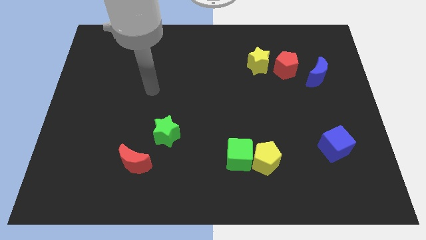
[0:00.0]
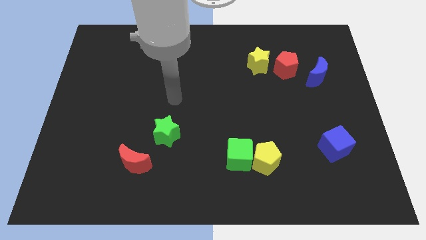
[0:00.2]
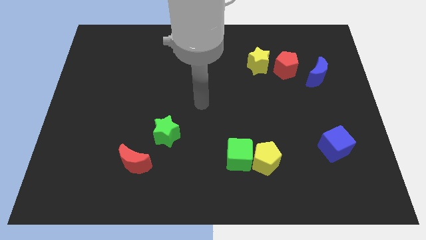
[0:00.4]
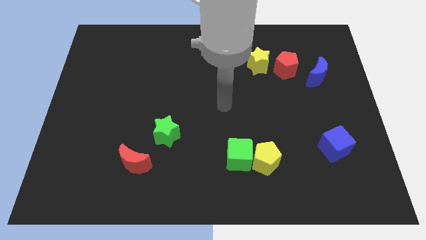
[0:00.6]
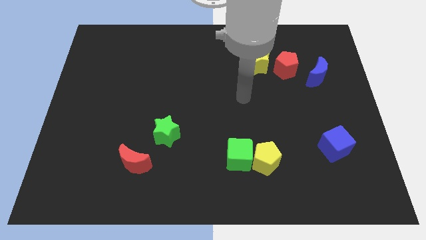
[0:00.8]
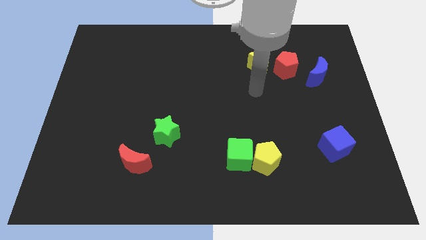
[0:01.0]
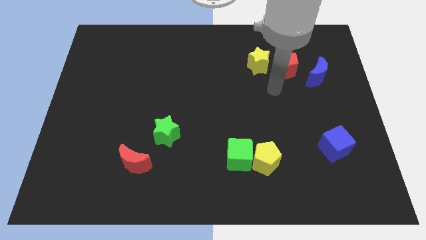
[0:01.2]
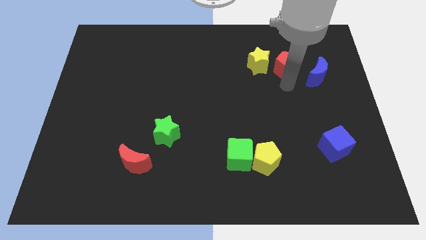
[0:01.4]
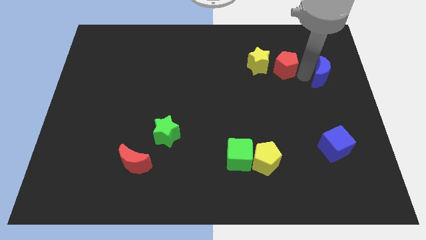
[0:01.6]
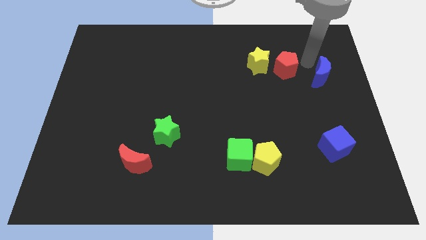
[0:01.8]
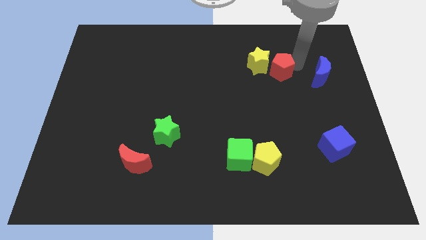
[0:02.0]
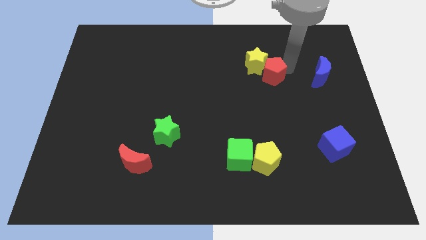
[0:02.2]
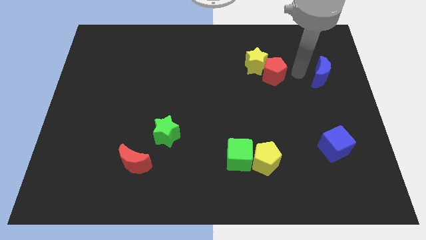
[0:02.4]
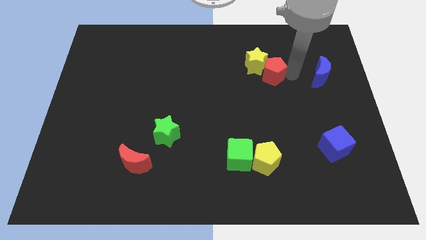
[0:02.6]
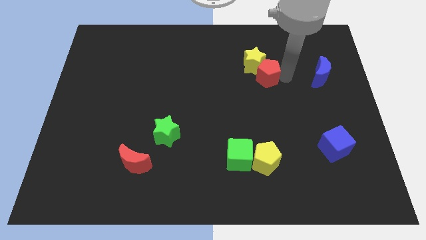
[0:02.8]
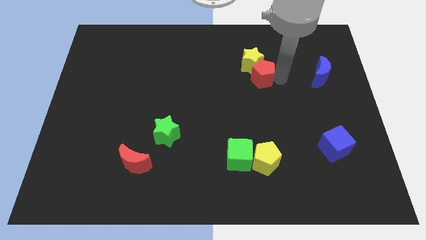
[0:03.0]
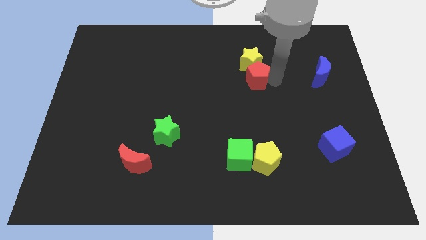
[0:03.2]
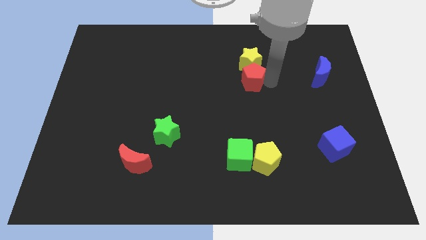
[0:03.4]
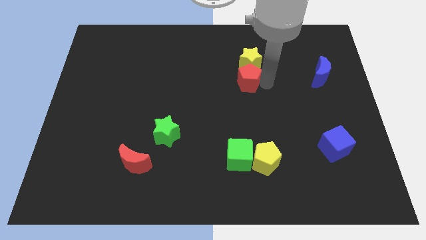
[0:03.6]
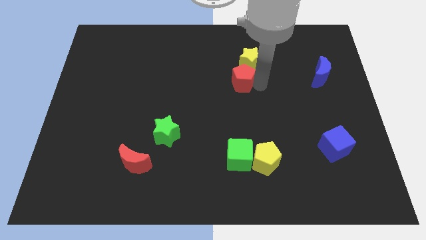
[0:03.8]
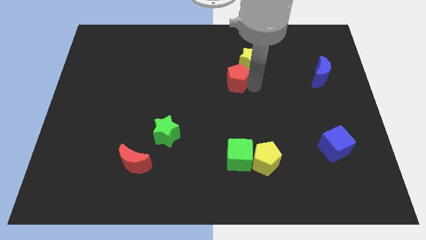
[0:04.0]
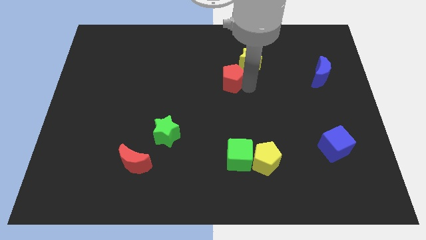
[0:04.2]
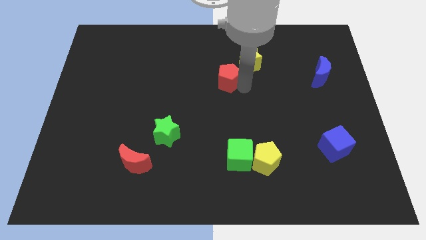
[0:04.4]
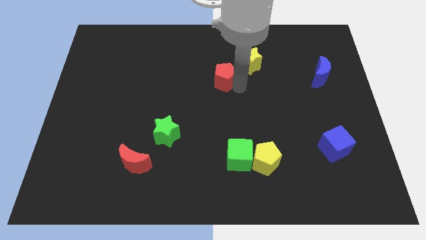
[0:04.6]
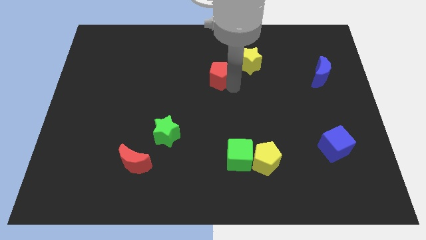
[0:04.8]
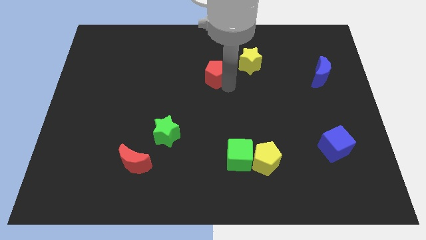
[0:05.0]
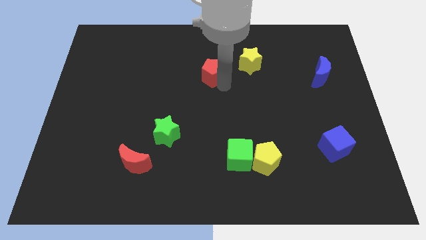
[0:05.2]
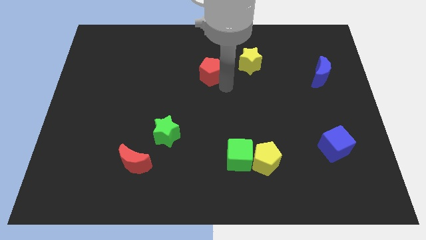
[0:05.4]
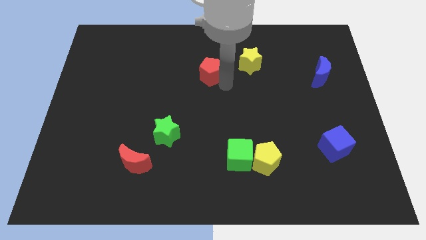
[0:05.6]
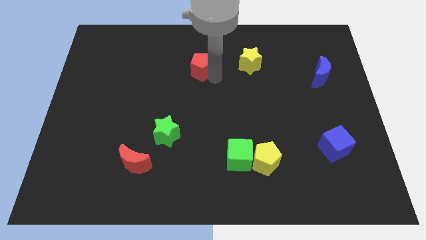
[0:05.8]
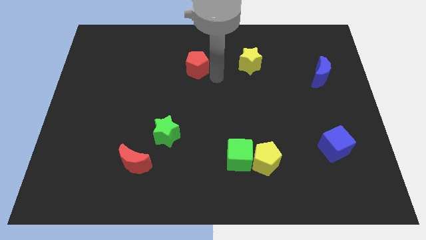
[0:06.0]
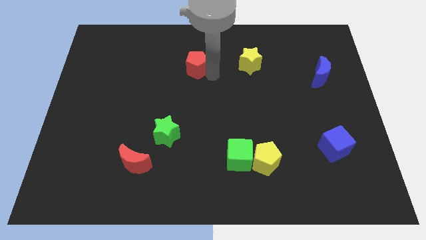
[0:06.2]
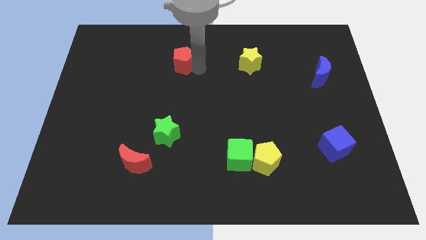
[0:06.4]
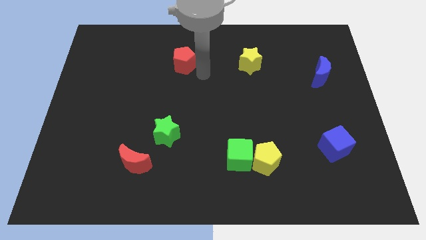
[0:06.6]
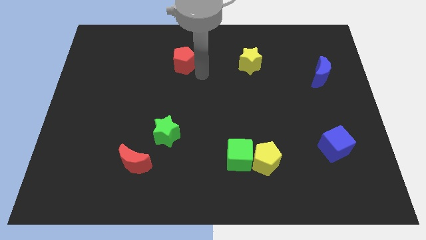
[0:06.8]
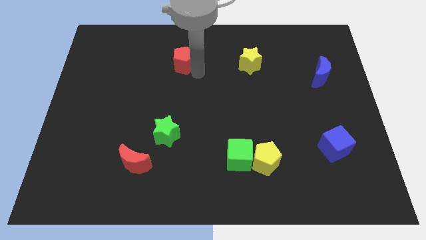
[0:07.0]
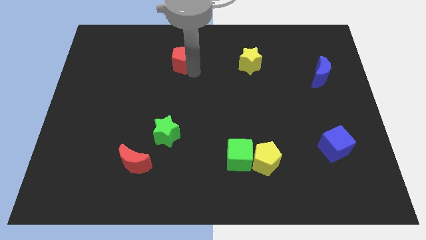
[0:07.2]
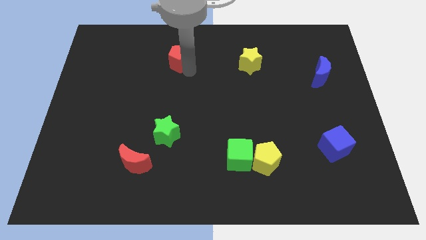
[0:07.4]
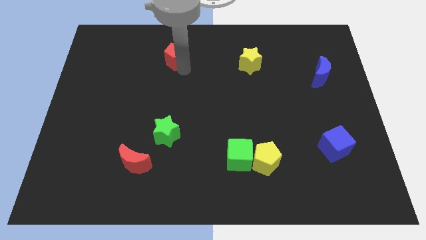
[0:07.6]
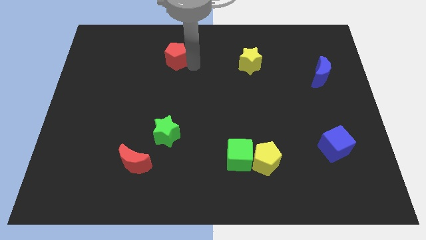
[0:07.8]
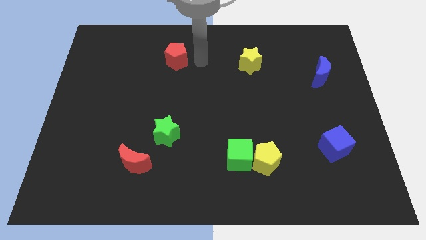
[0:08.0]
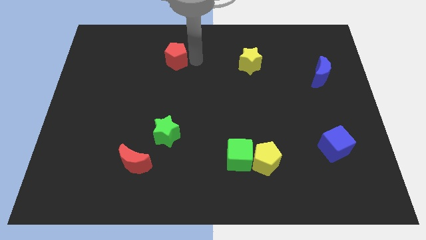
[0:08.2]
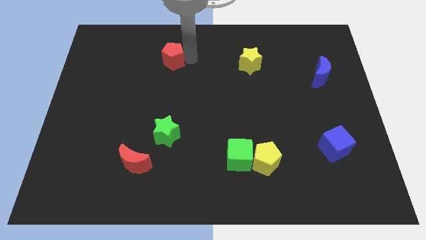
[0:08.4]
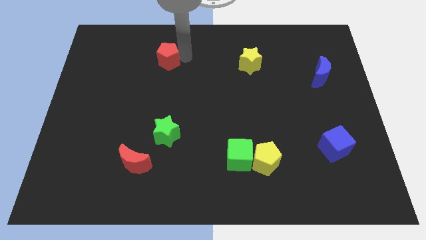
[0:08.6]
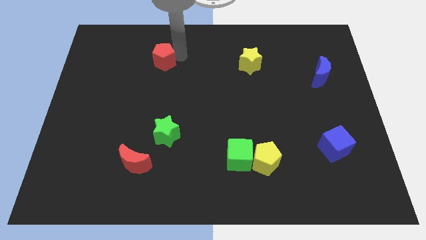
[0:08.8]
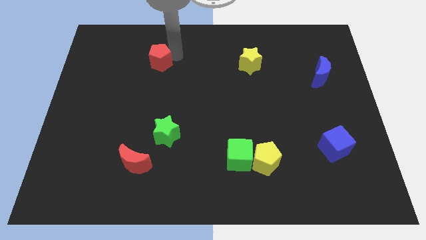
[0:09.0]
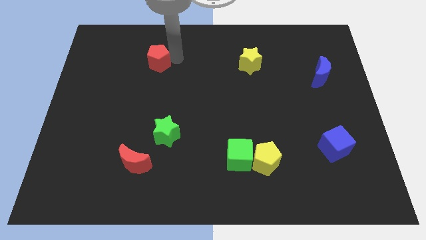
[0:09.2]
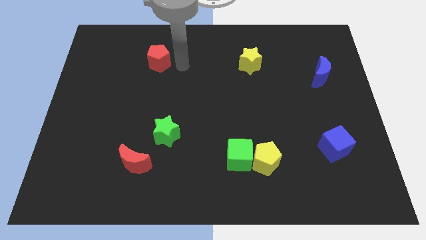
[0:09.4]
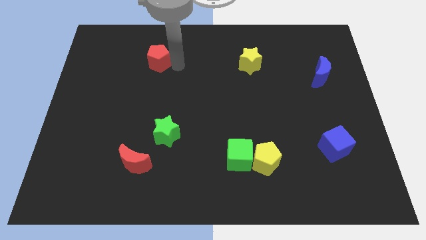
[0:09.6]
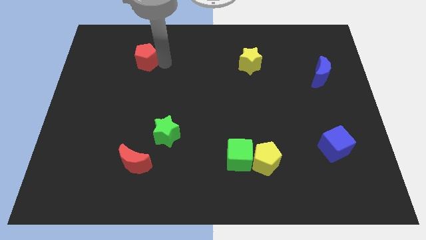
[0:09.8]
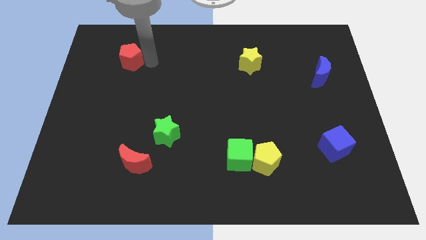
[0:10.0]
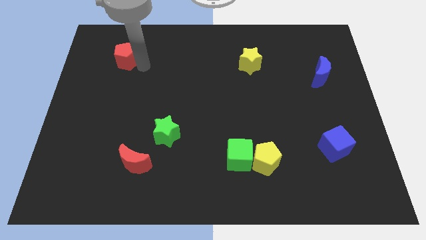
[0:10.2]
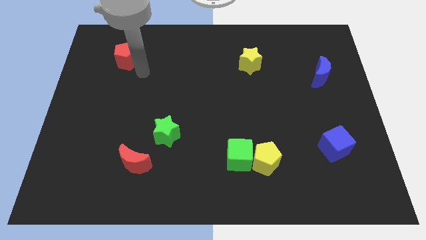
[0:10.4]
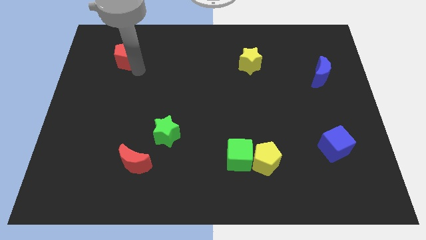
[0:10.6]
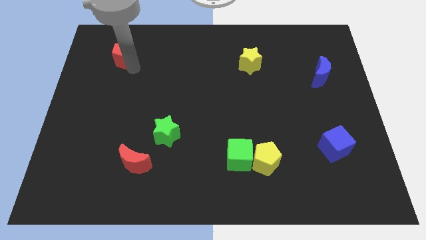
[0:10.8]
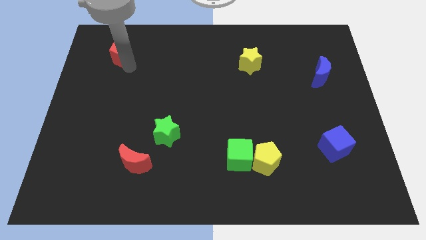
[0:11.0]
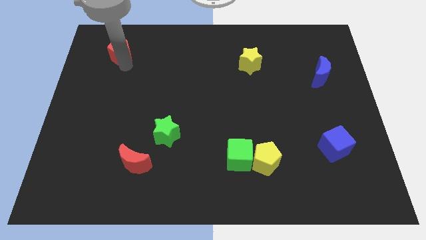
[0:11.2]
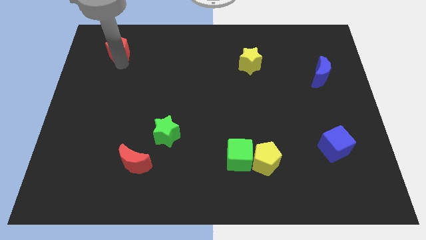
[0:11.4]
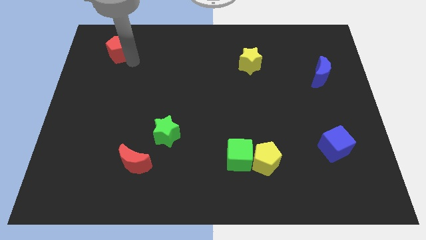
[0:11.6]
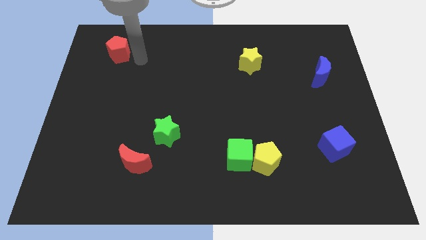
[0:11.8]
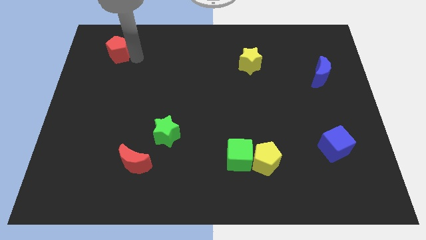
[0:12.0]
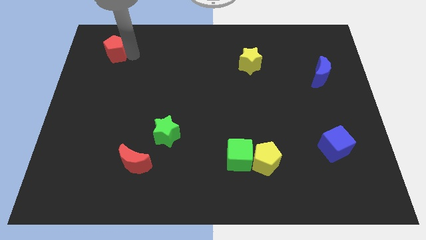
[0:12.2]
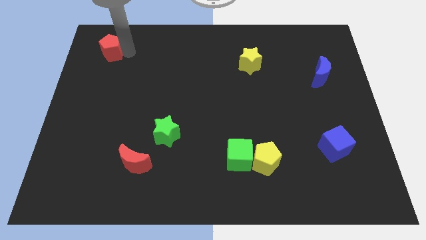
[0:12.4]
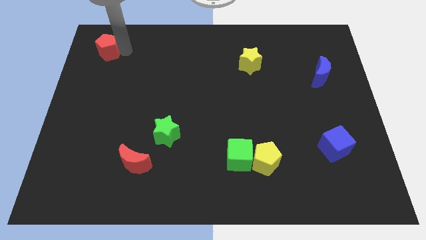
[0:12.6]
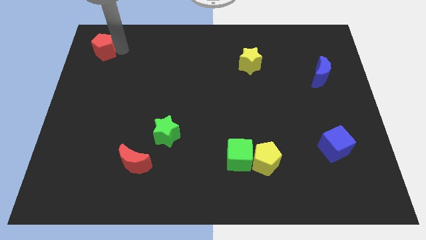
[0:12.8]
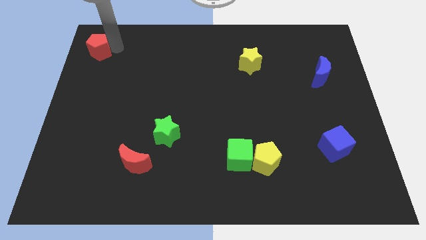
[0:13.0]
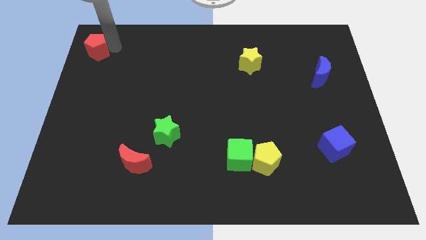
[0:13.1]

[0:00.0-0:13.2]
slide the red pentagon to the top left
